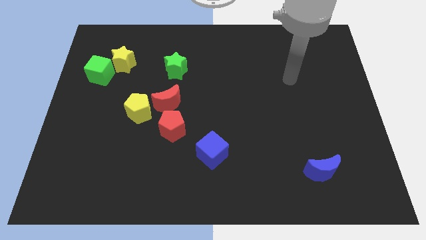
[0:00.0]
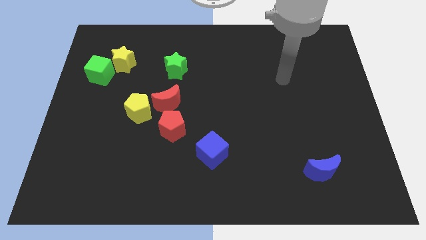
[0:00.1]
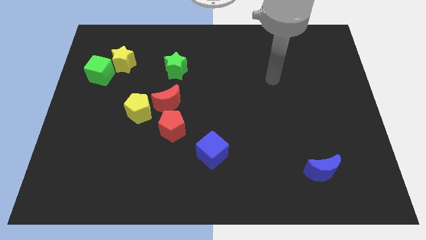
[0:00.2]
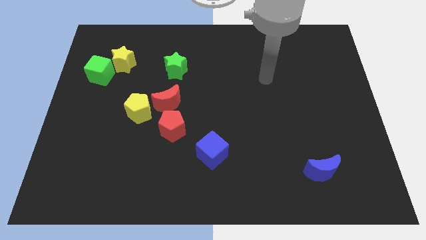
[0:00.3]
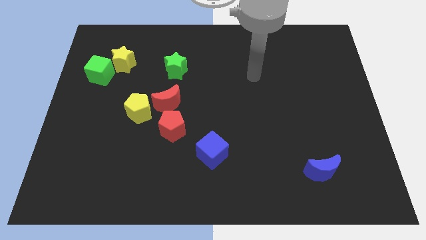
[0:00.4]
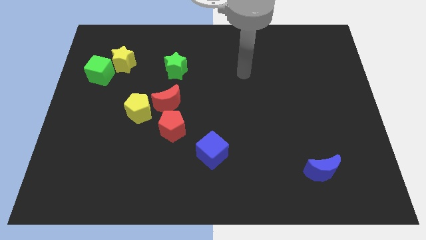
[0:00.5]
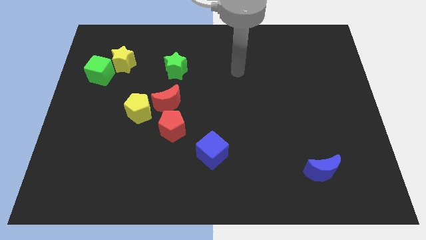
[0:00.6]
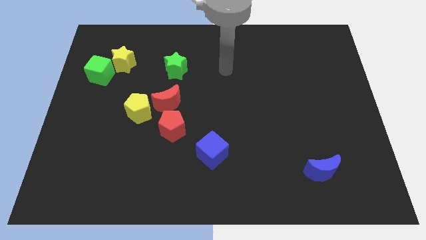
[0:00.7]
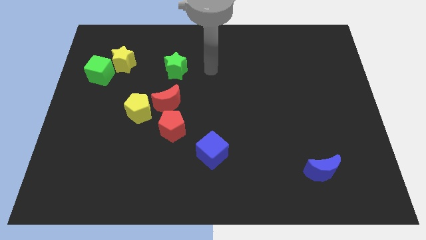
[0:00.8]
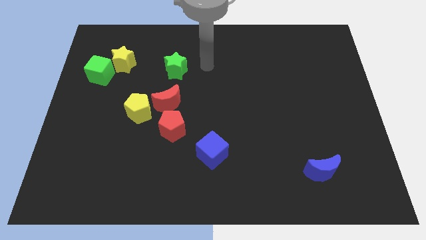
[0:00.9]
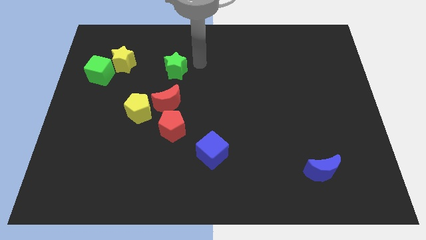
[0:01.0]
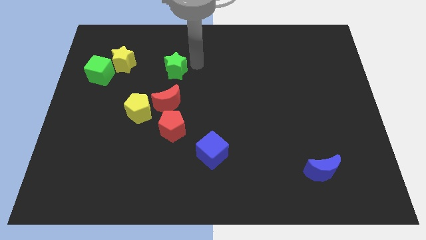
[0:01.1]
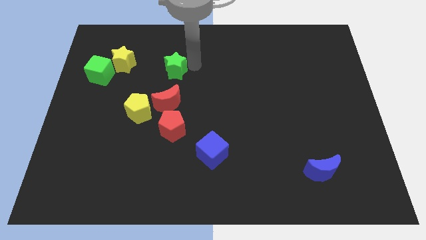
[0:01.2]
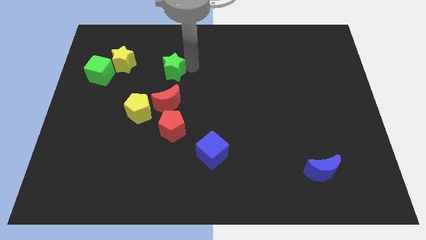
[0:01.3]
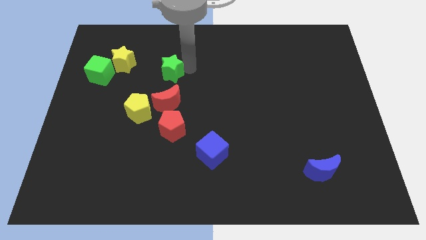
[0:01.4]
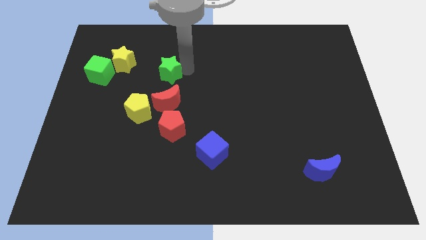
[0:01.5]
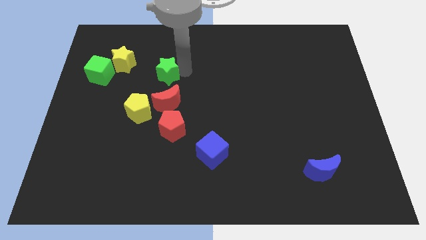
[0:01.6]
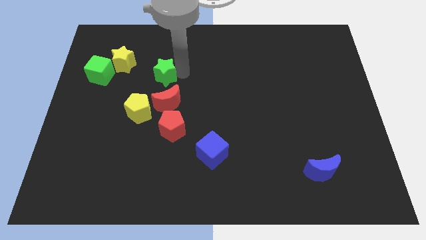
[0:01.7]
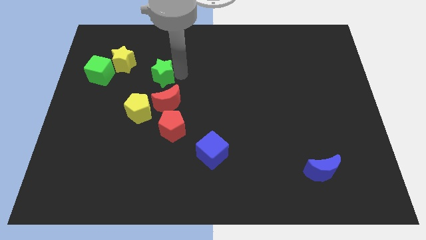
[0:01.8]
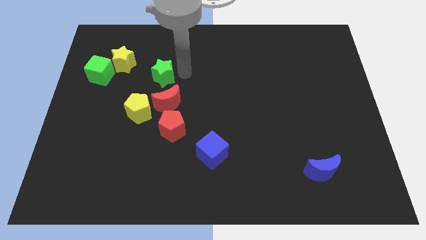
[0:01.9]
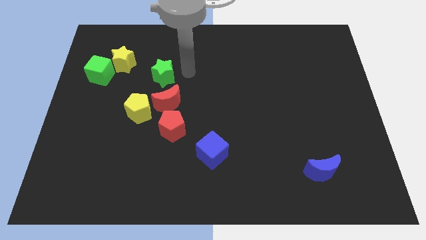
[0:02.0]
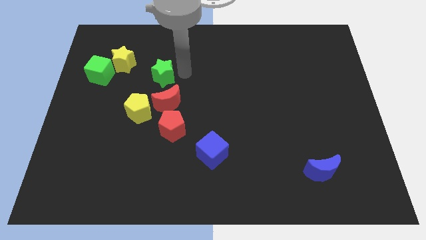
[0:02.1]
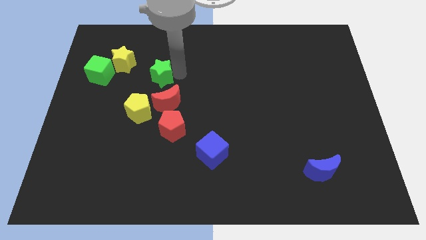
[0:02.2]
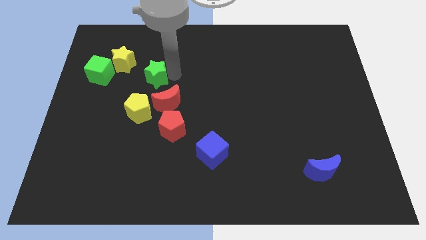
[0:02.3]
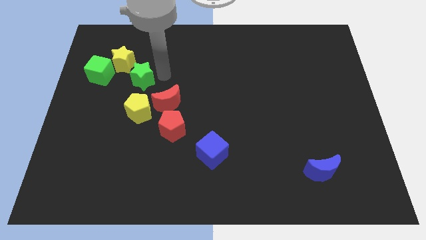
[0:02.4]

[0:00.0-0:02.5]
move the green star a bit diagonally down and to the left

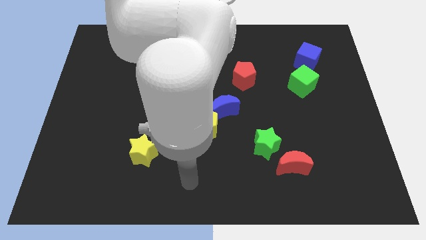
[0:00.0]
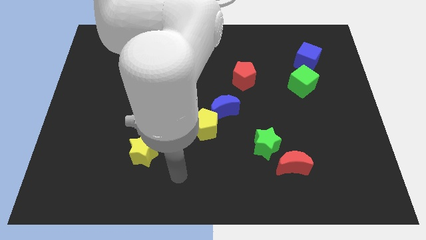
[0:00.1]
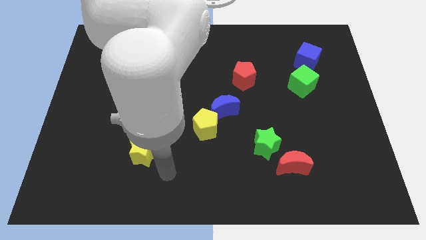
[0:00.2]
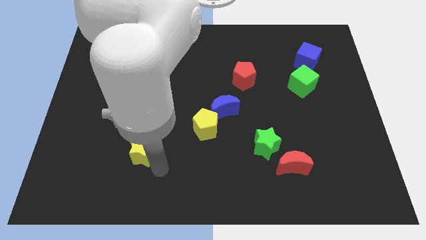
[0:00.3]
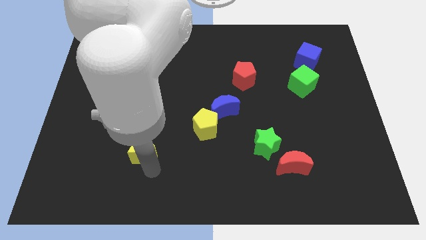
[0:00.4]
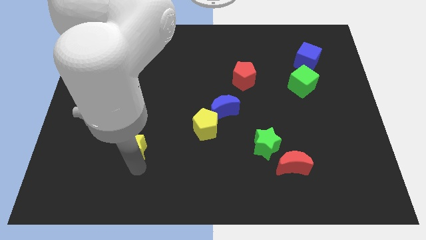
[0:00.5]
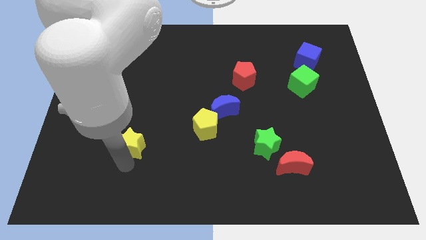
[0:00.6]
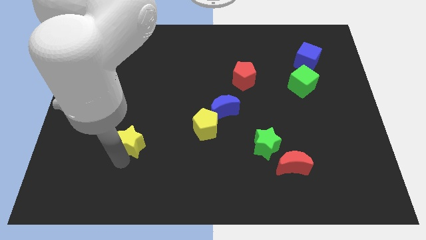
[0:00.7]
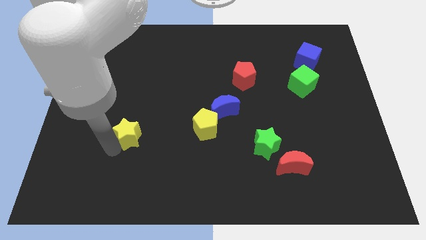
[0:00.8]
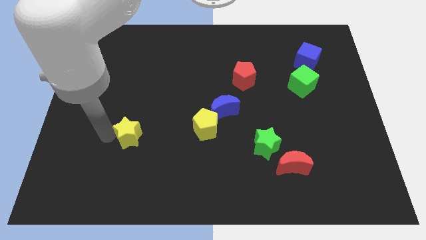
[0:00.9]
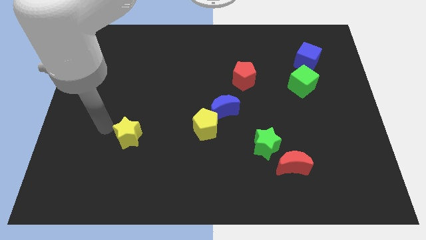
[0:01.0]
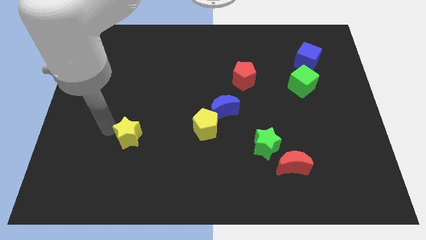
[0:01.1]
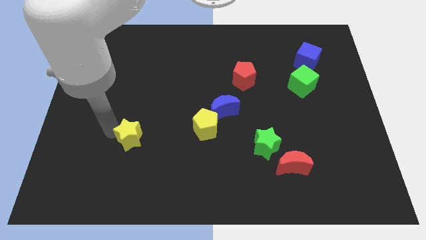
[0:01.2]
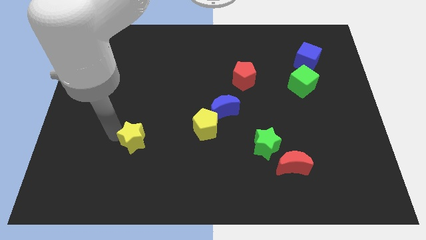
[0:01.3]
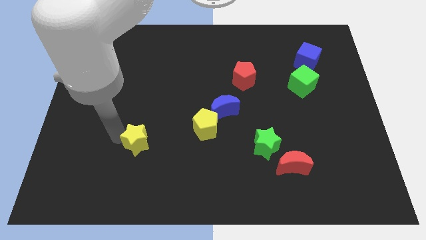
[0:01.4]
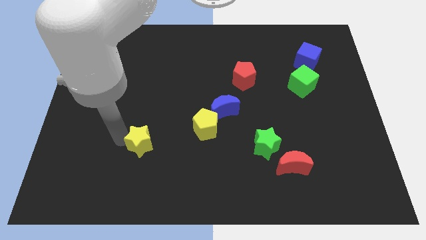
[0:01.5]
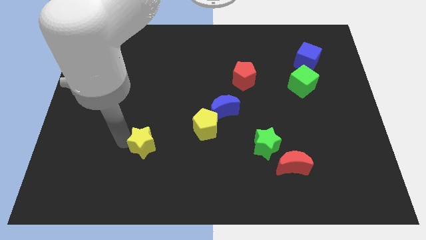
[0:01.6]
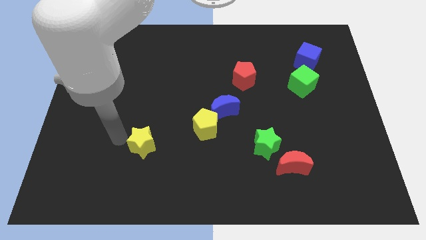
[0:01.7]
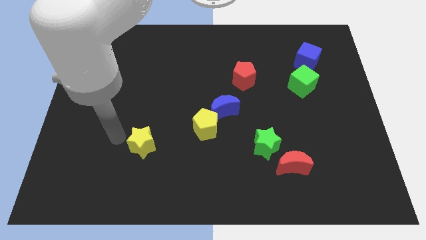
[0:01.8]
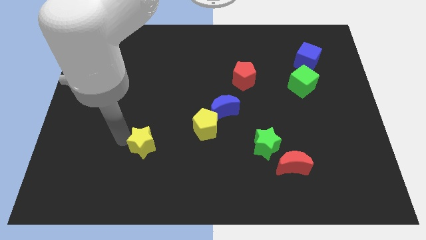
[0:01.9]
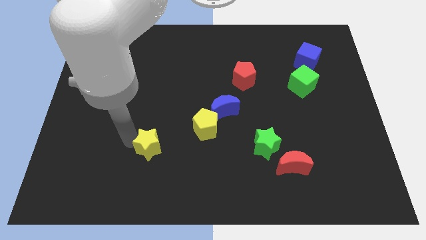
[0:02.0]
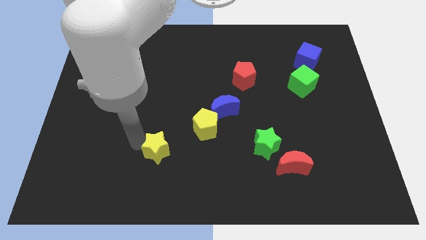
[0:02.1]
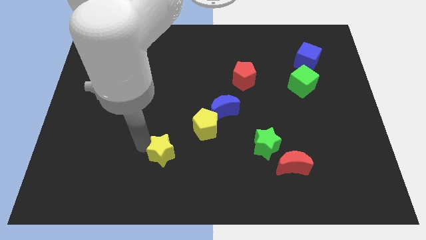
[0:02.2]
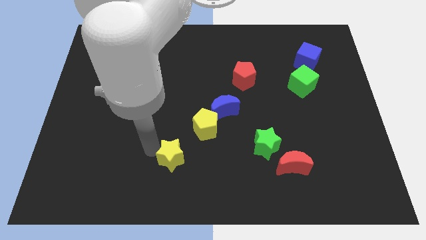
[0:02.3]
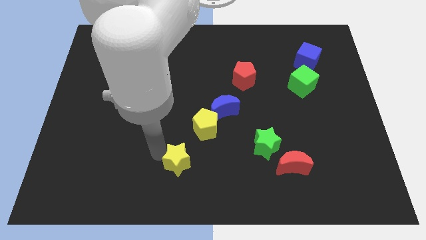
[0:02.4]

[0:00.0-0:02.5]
push the yellow star a little bit to the right

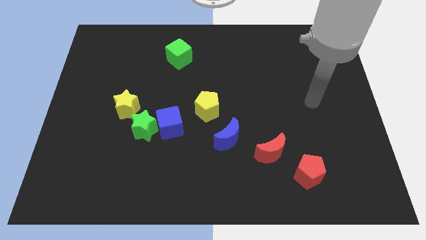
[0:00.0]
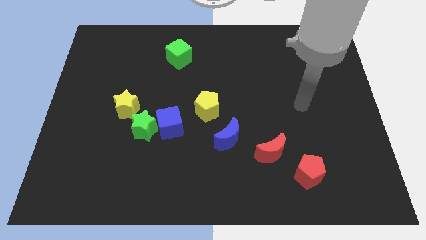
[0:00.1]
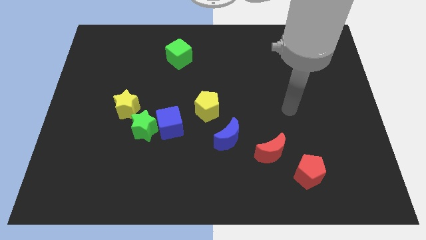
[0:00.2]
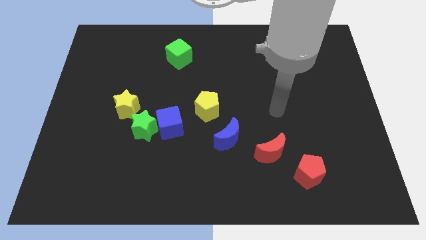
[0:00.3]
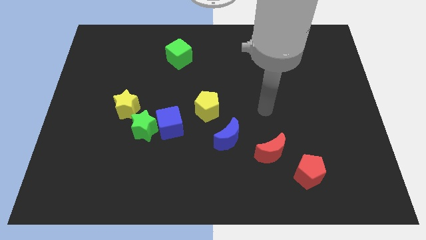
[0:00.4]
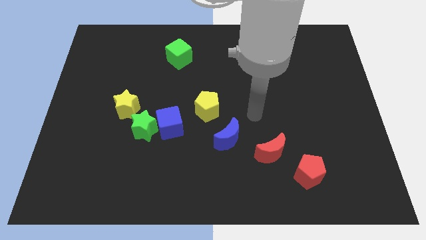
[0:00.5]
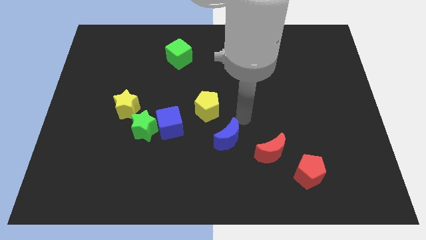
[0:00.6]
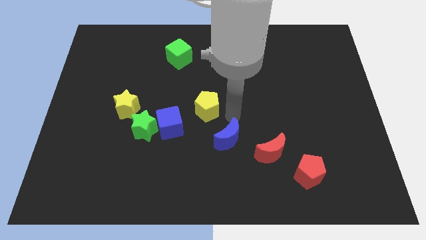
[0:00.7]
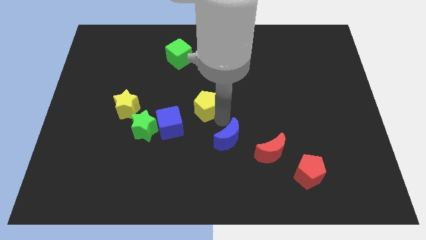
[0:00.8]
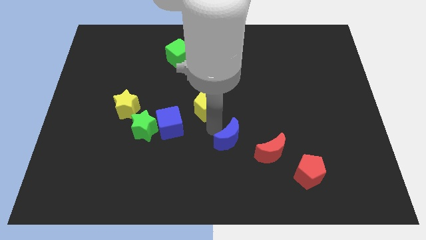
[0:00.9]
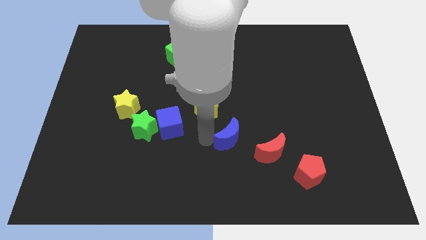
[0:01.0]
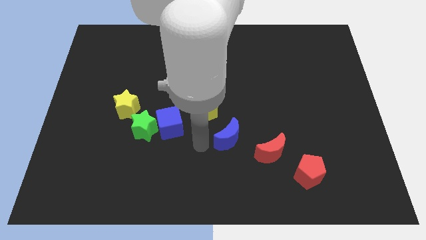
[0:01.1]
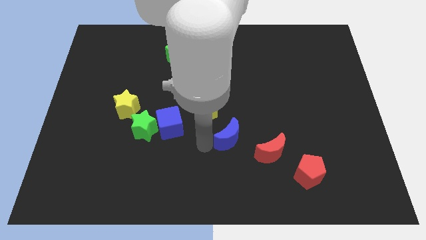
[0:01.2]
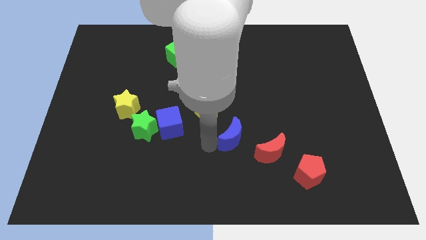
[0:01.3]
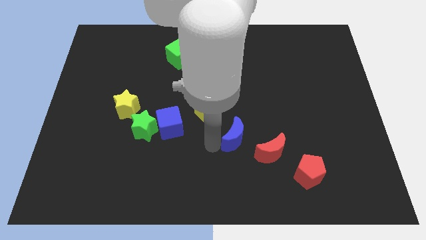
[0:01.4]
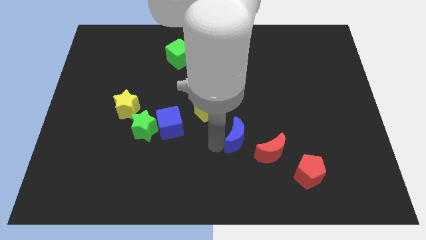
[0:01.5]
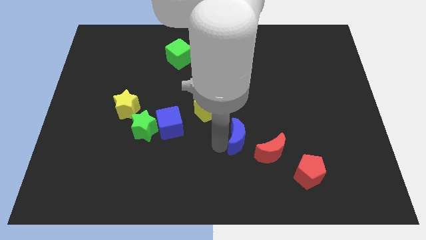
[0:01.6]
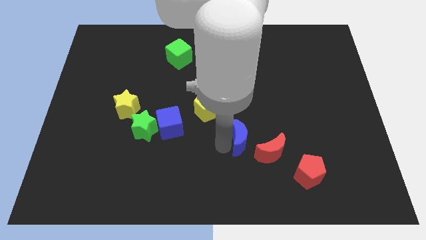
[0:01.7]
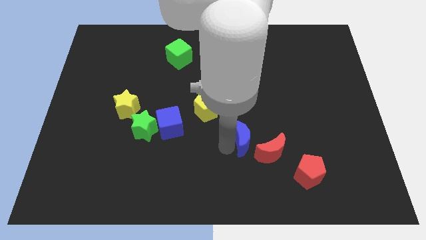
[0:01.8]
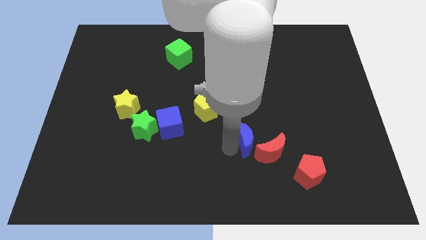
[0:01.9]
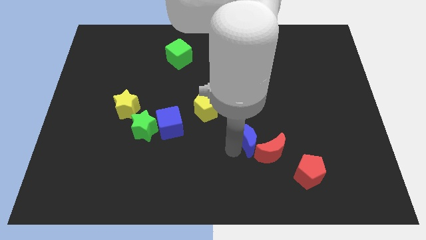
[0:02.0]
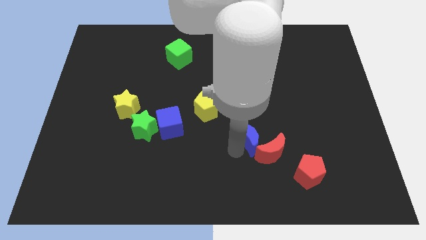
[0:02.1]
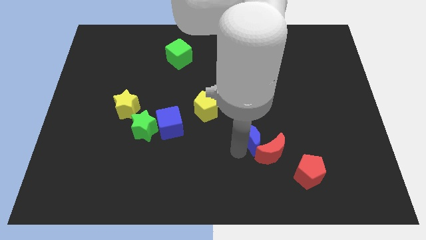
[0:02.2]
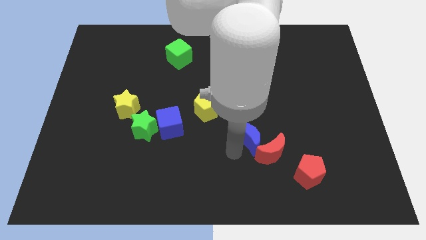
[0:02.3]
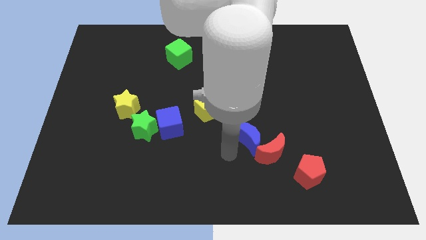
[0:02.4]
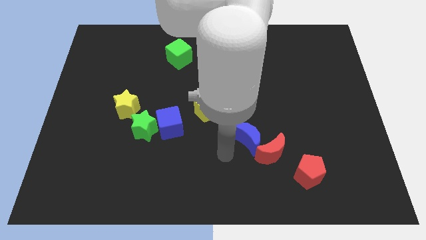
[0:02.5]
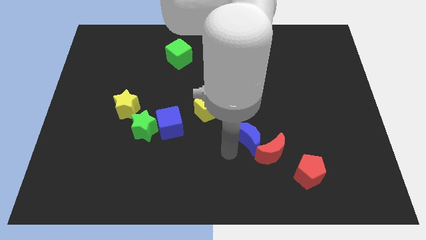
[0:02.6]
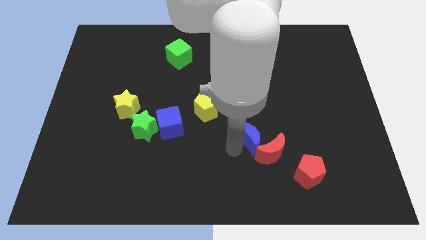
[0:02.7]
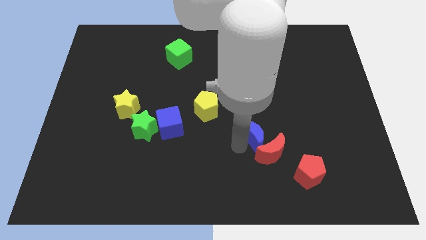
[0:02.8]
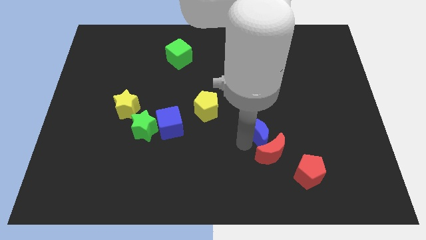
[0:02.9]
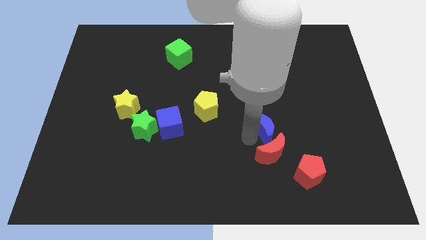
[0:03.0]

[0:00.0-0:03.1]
slightly slide the blue moon right
